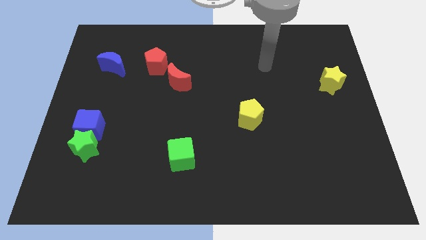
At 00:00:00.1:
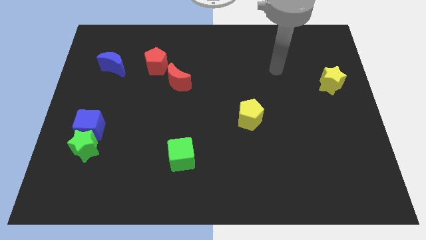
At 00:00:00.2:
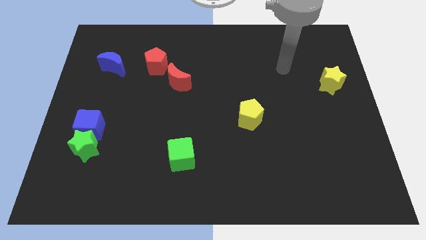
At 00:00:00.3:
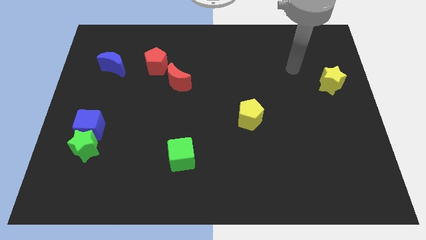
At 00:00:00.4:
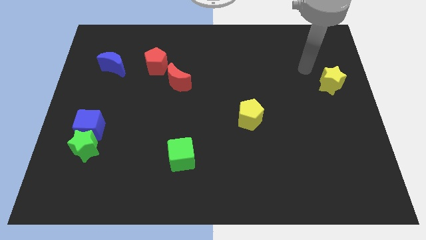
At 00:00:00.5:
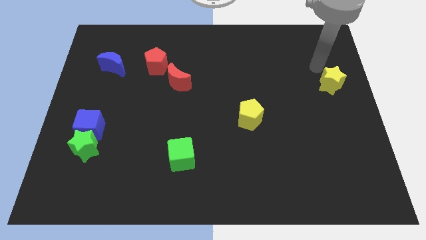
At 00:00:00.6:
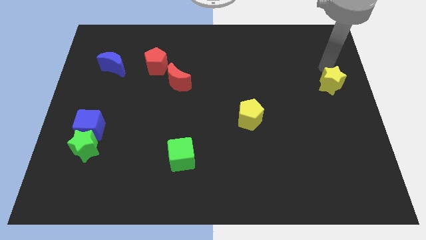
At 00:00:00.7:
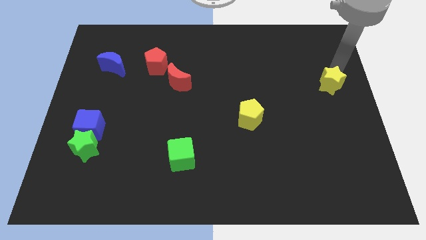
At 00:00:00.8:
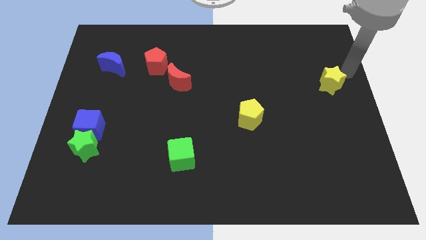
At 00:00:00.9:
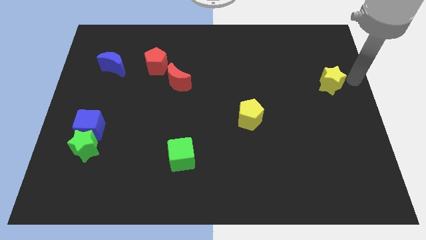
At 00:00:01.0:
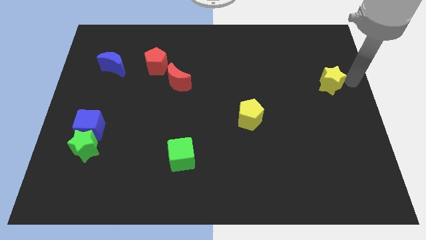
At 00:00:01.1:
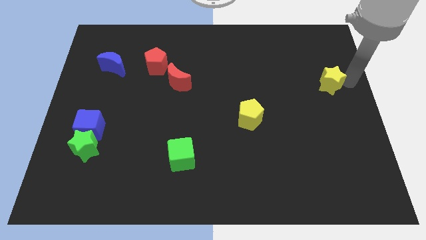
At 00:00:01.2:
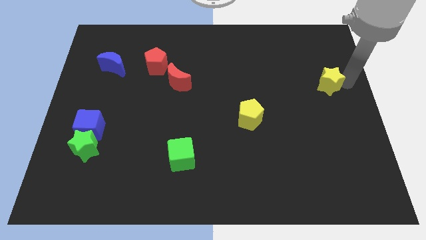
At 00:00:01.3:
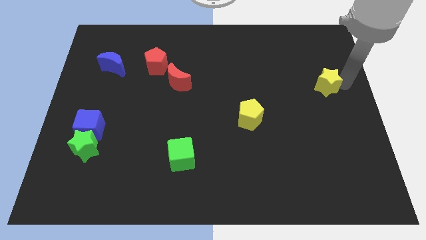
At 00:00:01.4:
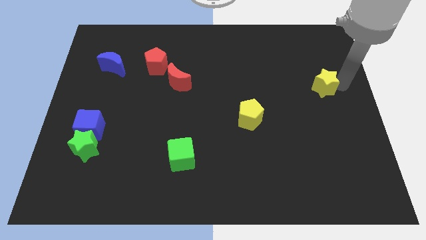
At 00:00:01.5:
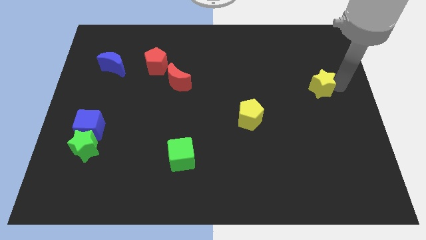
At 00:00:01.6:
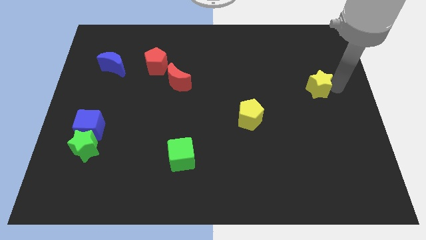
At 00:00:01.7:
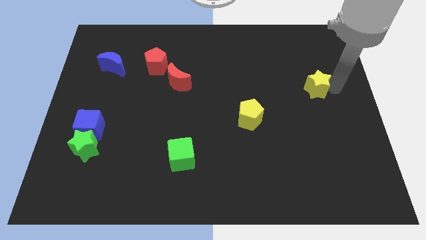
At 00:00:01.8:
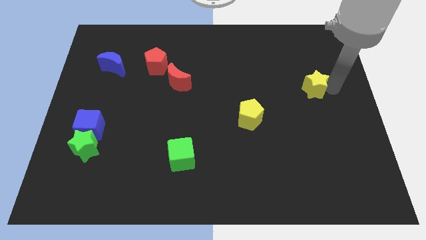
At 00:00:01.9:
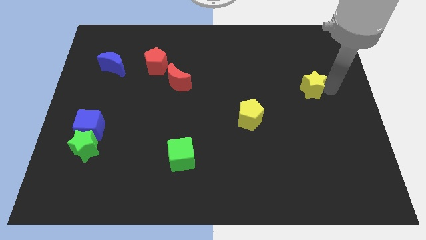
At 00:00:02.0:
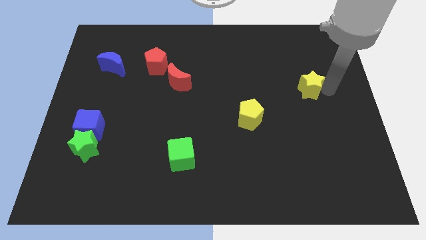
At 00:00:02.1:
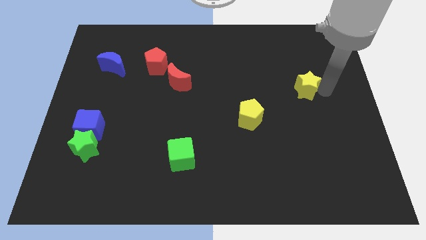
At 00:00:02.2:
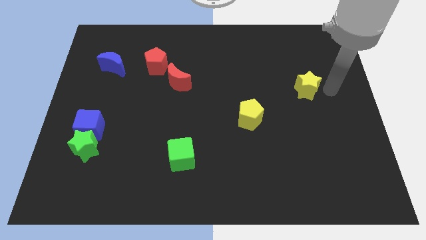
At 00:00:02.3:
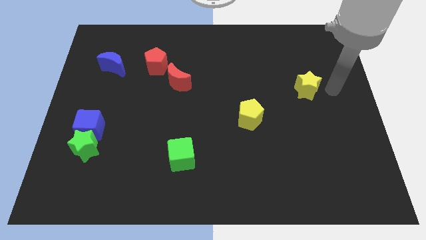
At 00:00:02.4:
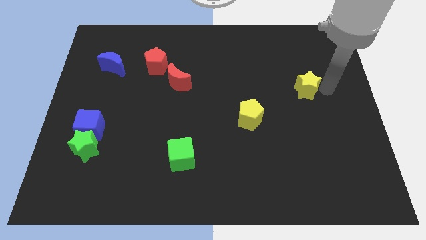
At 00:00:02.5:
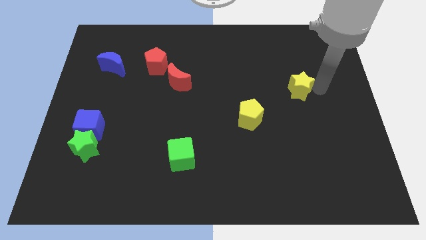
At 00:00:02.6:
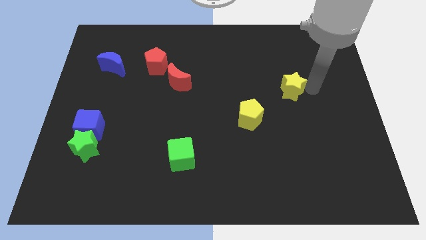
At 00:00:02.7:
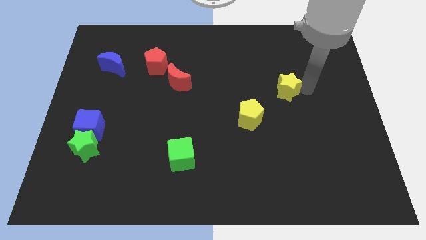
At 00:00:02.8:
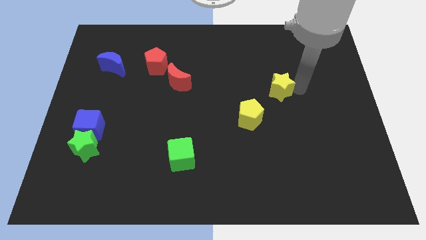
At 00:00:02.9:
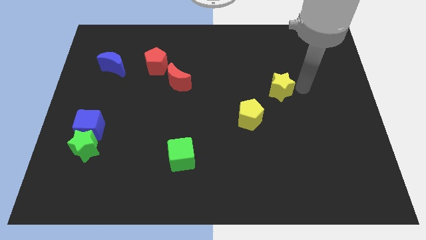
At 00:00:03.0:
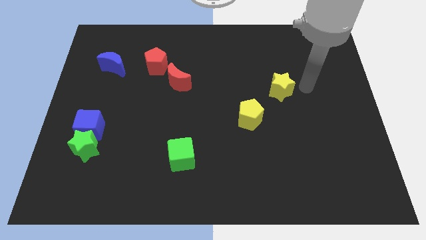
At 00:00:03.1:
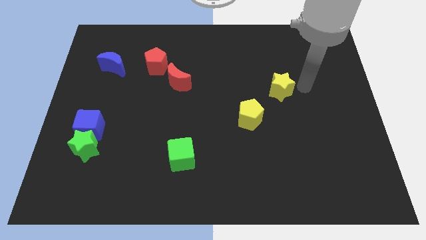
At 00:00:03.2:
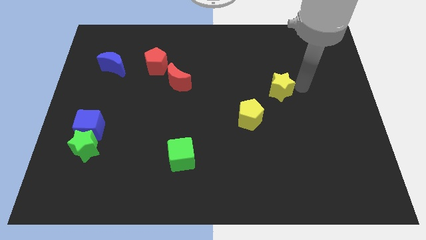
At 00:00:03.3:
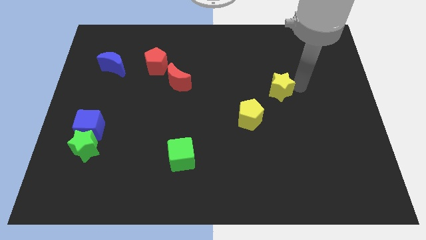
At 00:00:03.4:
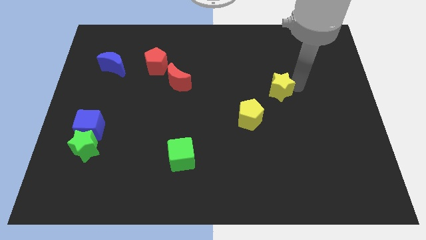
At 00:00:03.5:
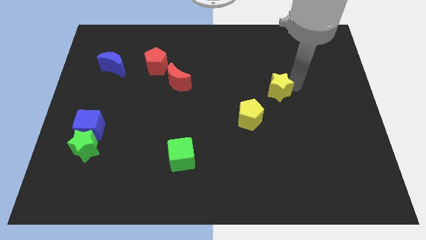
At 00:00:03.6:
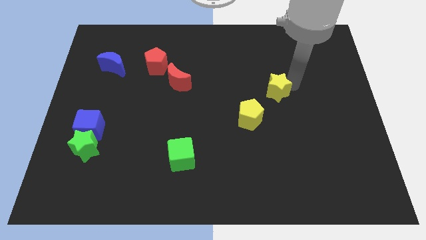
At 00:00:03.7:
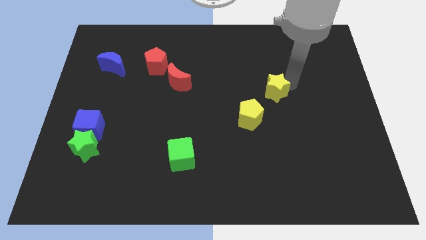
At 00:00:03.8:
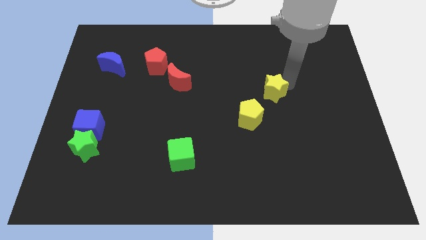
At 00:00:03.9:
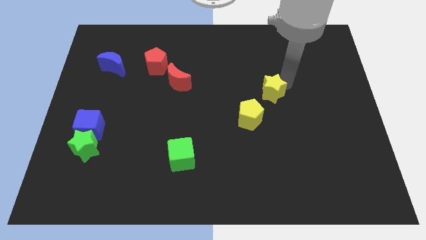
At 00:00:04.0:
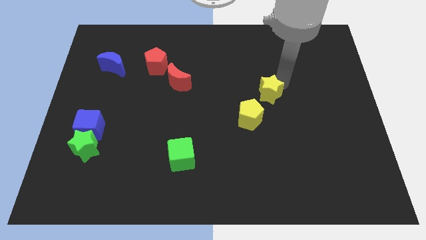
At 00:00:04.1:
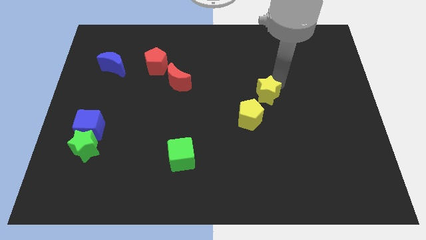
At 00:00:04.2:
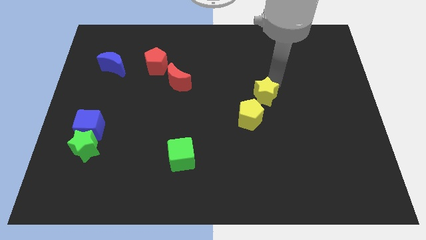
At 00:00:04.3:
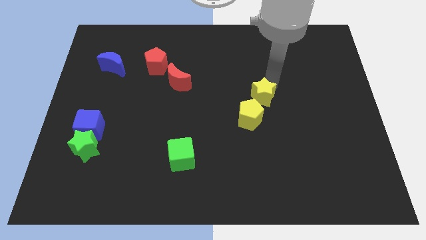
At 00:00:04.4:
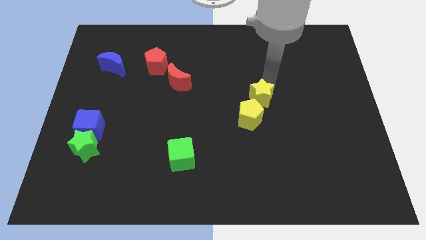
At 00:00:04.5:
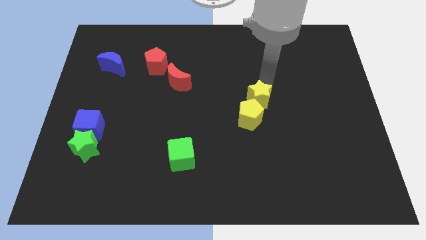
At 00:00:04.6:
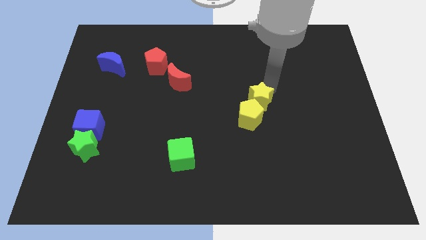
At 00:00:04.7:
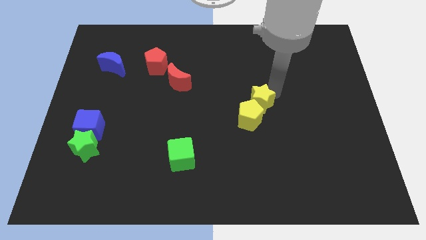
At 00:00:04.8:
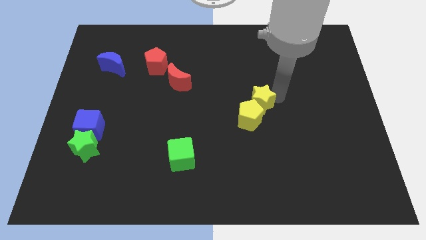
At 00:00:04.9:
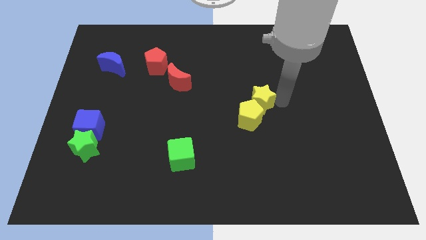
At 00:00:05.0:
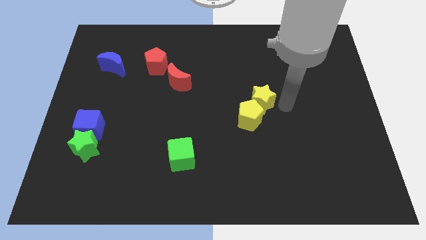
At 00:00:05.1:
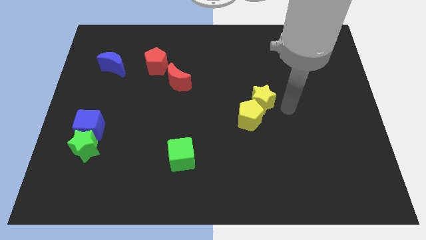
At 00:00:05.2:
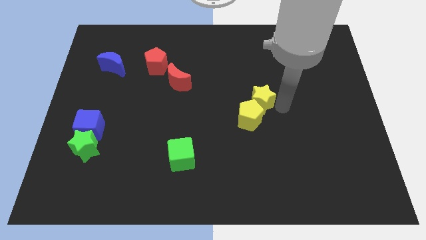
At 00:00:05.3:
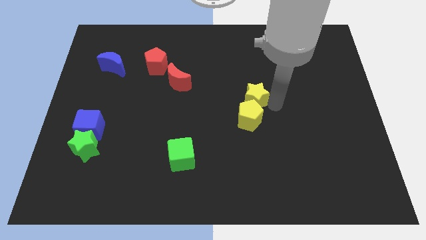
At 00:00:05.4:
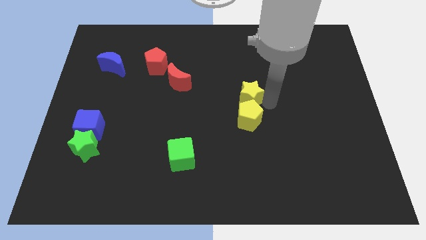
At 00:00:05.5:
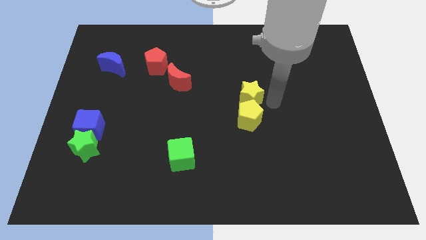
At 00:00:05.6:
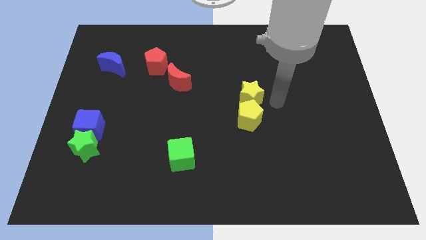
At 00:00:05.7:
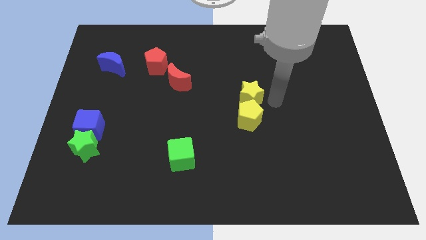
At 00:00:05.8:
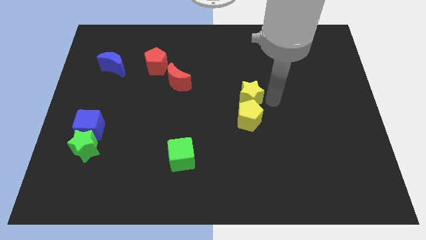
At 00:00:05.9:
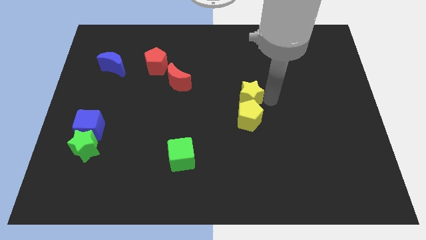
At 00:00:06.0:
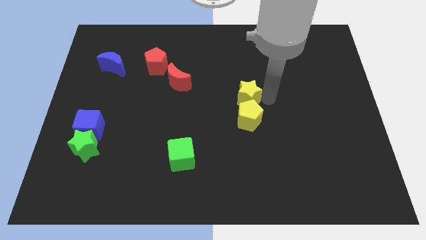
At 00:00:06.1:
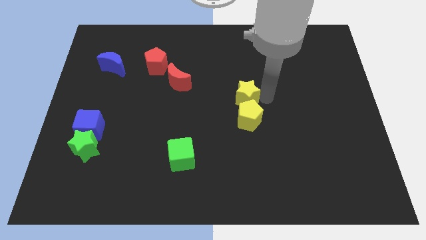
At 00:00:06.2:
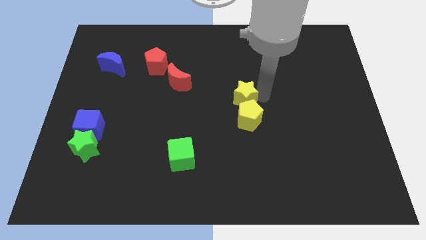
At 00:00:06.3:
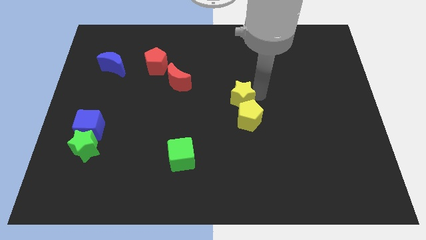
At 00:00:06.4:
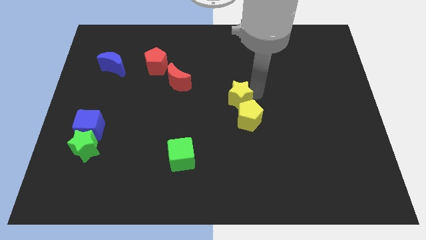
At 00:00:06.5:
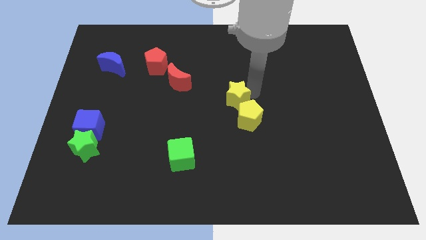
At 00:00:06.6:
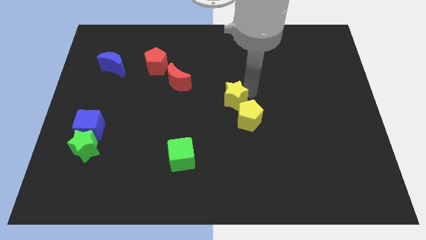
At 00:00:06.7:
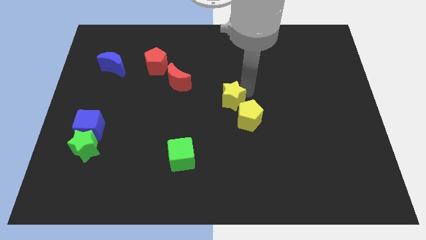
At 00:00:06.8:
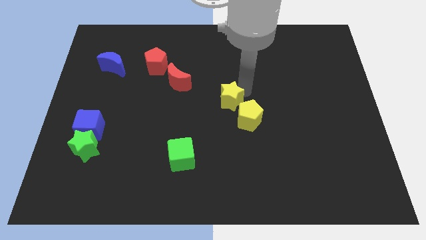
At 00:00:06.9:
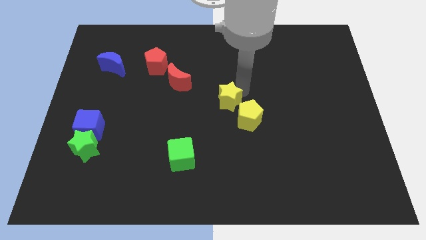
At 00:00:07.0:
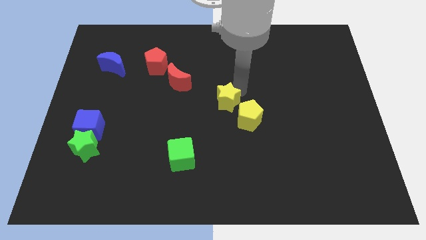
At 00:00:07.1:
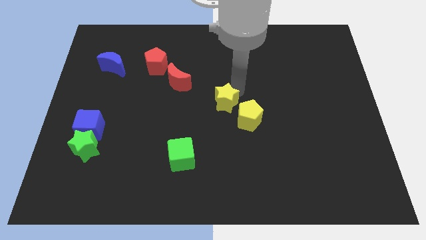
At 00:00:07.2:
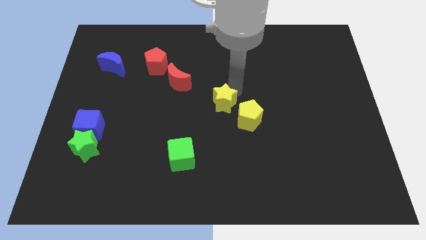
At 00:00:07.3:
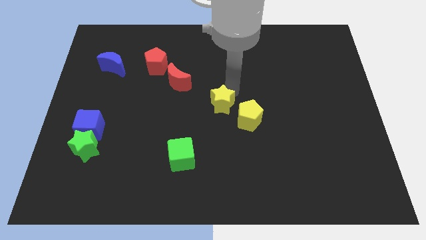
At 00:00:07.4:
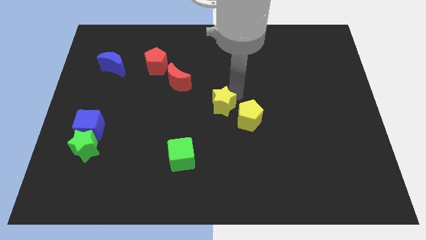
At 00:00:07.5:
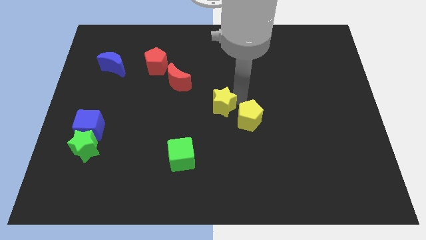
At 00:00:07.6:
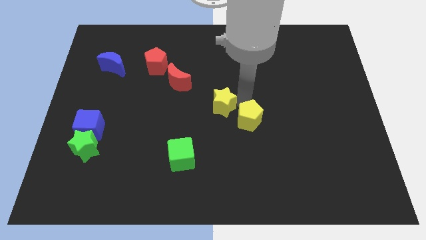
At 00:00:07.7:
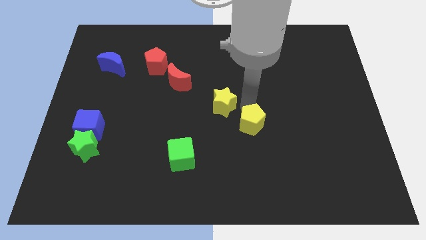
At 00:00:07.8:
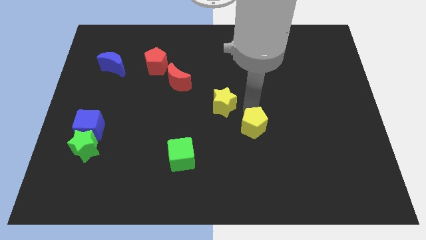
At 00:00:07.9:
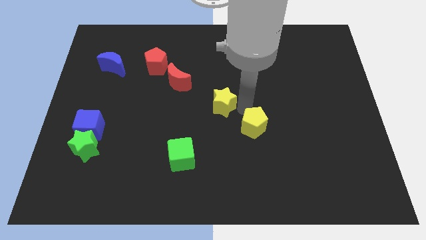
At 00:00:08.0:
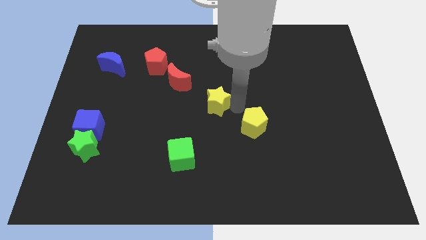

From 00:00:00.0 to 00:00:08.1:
push the yellow star to the bottom right of the red moon

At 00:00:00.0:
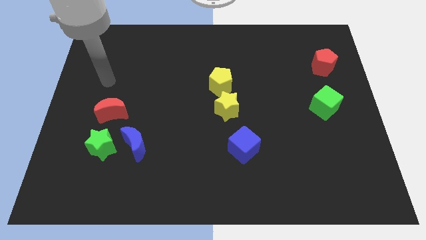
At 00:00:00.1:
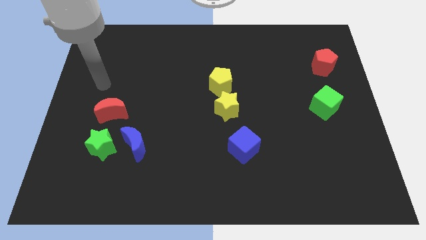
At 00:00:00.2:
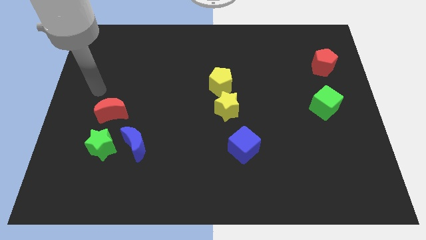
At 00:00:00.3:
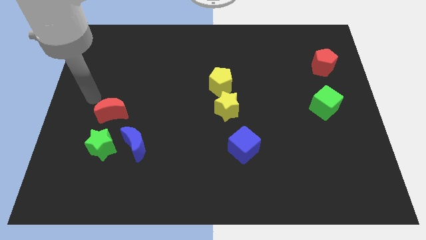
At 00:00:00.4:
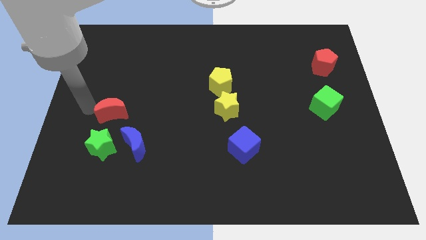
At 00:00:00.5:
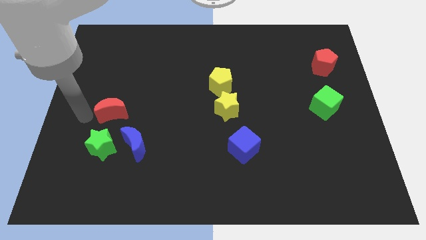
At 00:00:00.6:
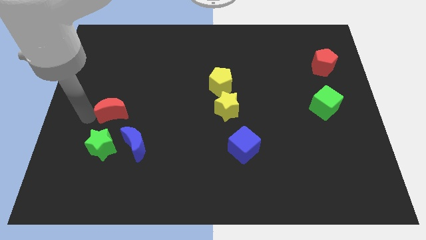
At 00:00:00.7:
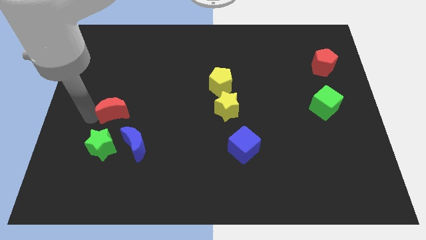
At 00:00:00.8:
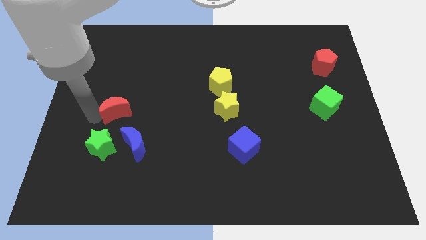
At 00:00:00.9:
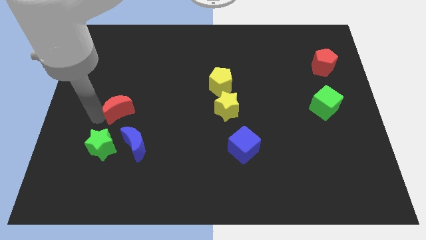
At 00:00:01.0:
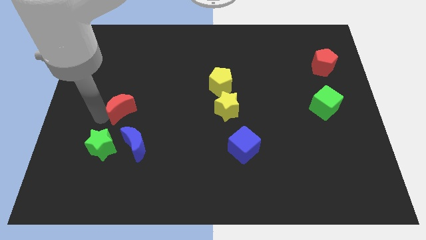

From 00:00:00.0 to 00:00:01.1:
put the red moon to the top of the blue moon
